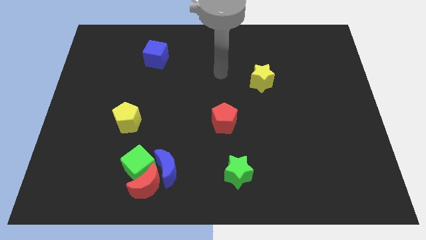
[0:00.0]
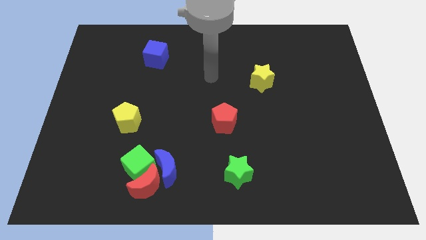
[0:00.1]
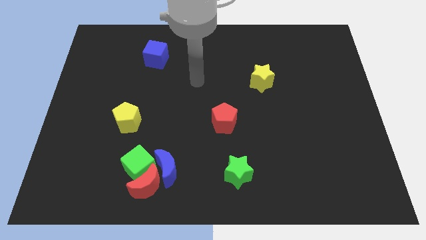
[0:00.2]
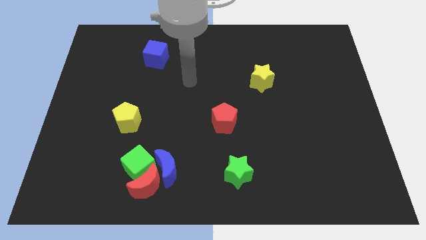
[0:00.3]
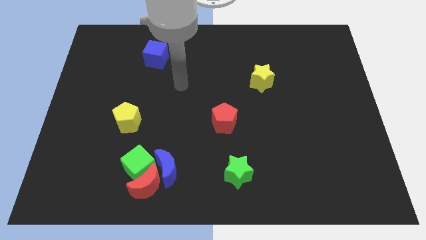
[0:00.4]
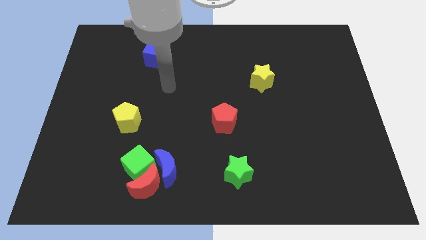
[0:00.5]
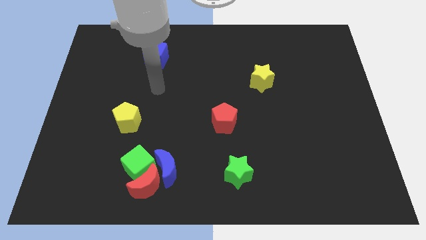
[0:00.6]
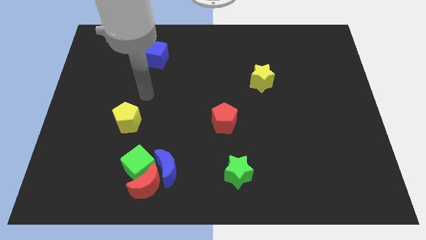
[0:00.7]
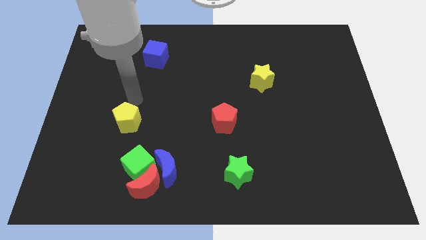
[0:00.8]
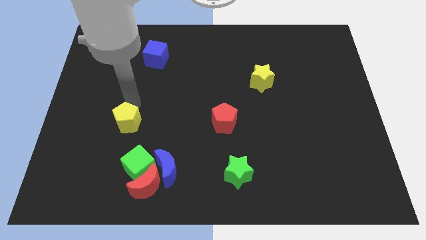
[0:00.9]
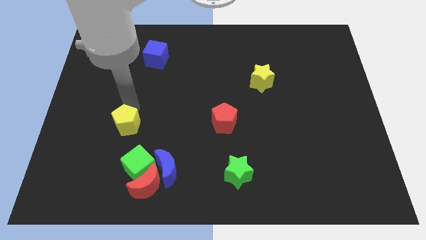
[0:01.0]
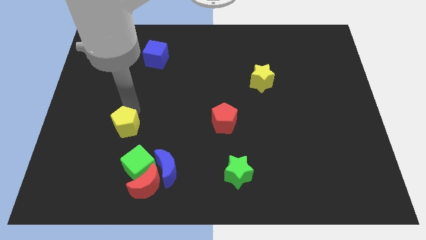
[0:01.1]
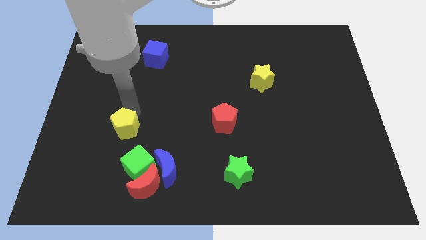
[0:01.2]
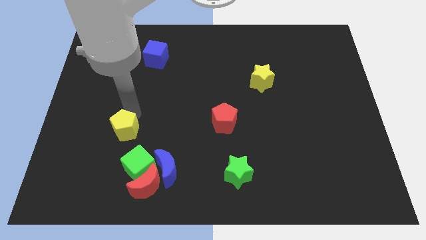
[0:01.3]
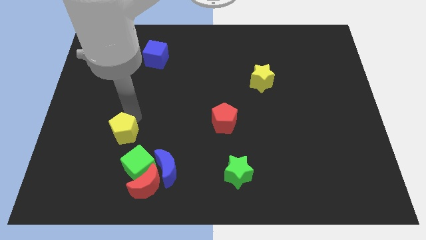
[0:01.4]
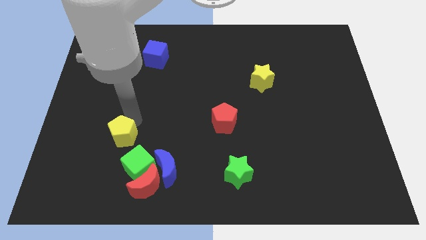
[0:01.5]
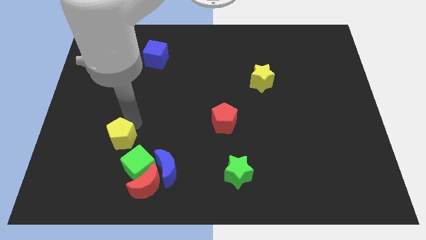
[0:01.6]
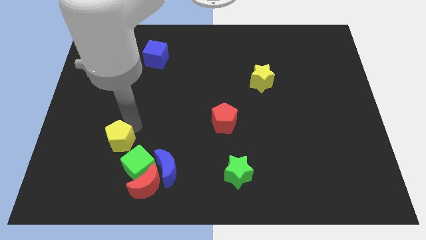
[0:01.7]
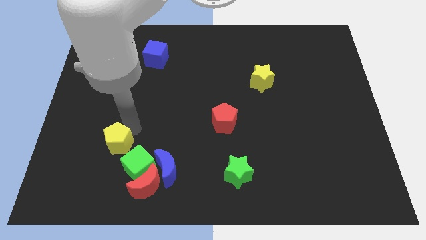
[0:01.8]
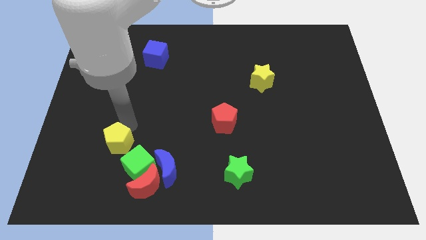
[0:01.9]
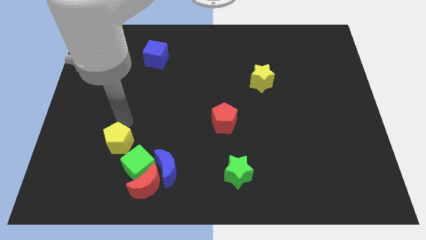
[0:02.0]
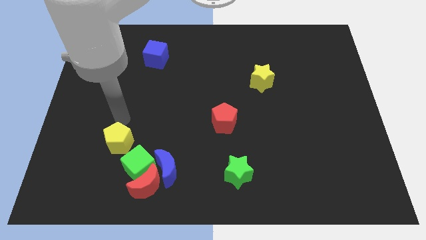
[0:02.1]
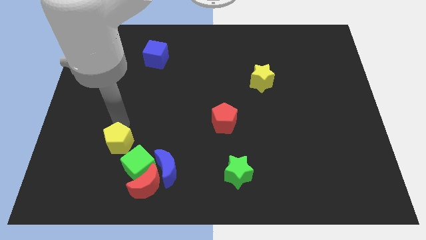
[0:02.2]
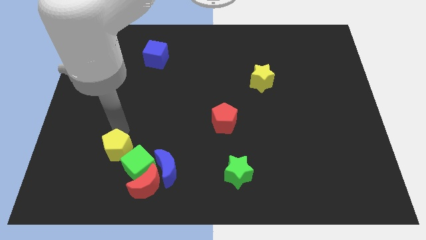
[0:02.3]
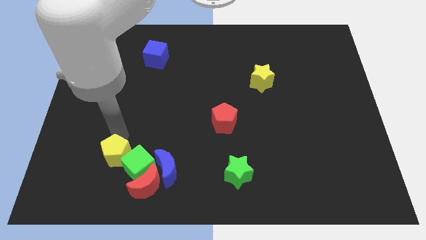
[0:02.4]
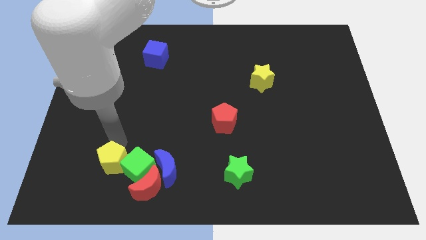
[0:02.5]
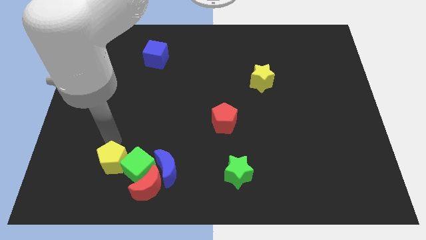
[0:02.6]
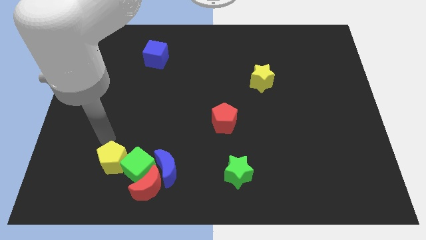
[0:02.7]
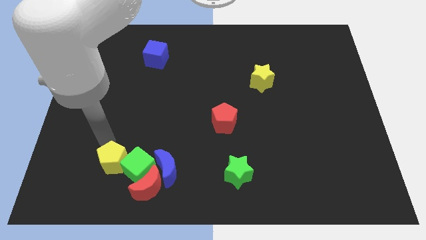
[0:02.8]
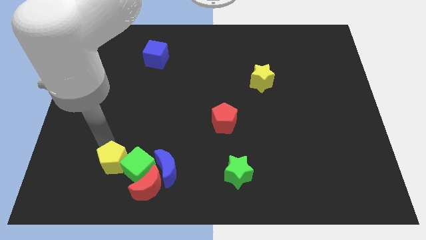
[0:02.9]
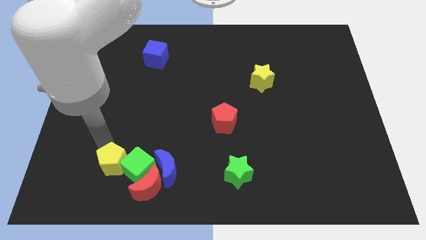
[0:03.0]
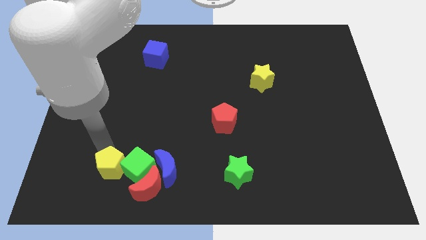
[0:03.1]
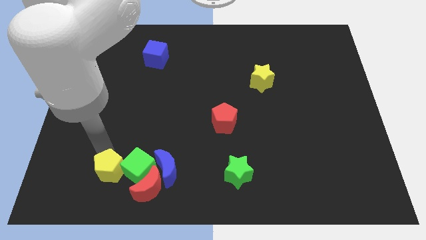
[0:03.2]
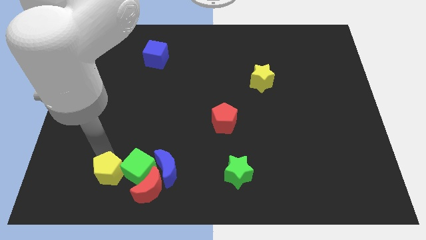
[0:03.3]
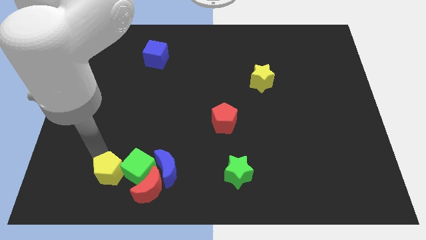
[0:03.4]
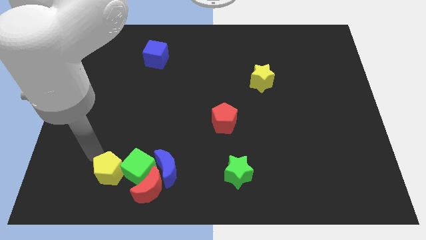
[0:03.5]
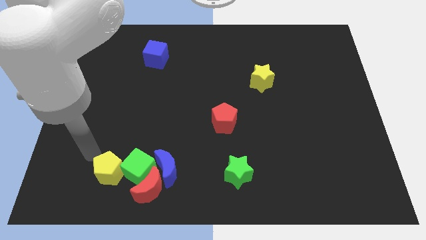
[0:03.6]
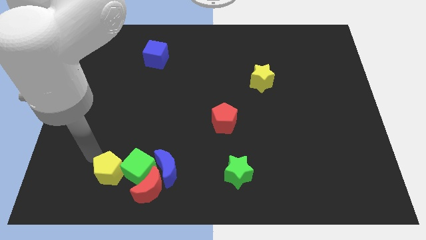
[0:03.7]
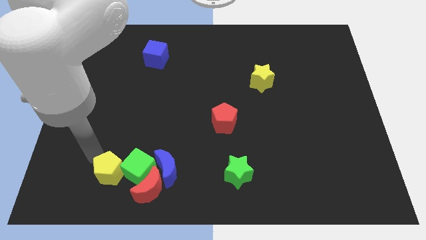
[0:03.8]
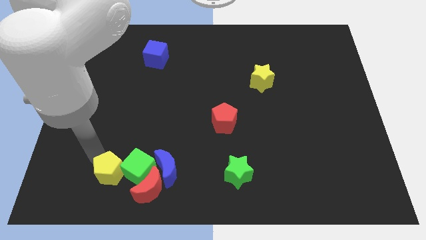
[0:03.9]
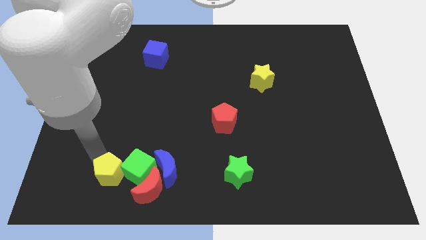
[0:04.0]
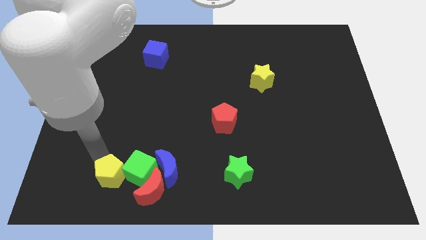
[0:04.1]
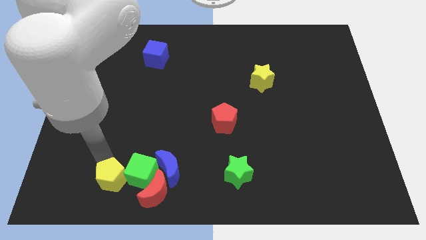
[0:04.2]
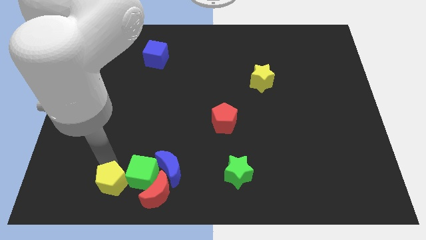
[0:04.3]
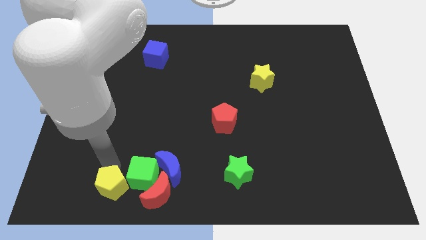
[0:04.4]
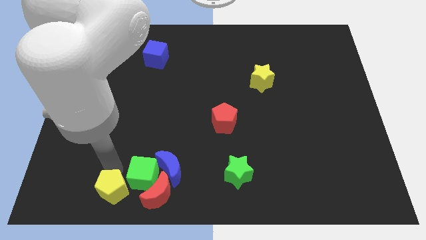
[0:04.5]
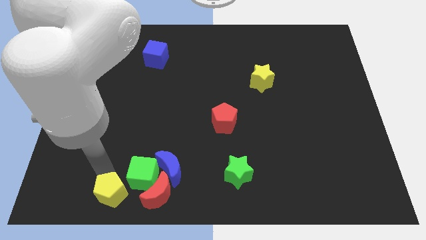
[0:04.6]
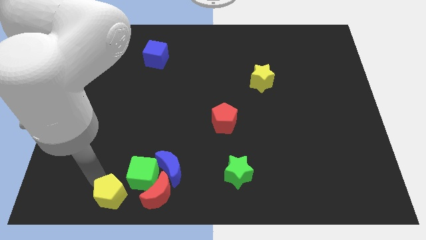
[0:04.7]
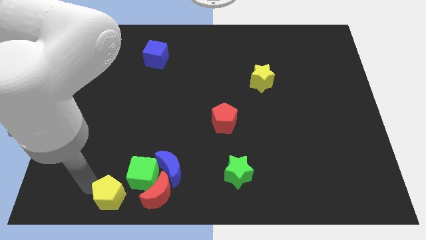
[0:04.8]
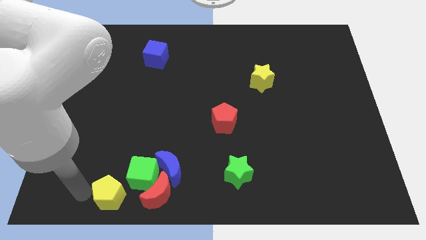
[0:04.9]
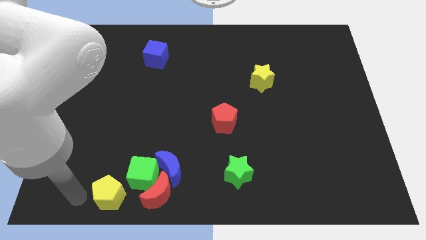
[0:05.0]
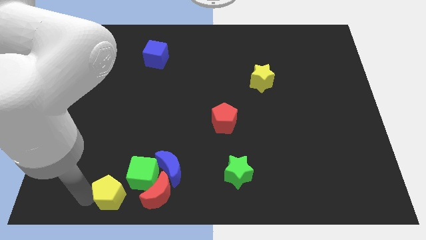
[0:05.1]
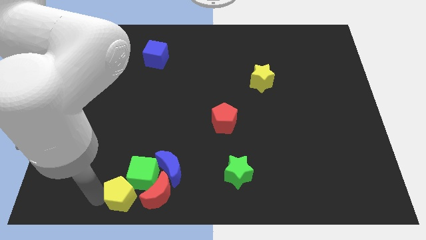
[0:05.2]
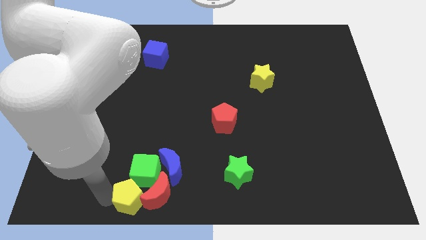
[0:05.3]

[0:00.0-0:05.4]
move the yellow pentagon close to the red moon

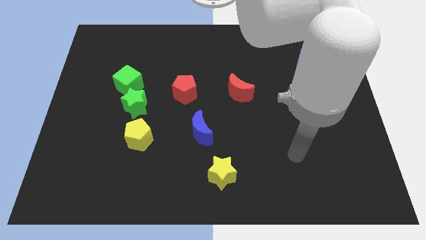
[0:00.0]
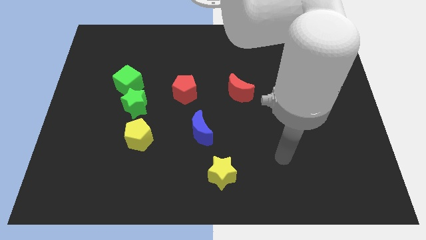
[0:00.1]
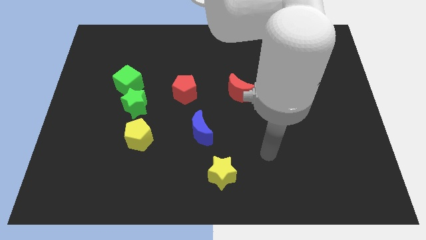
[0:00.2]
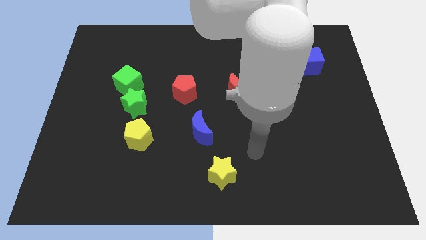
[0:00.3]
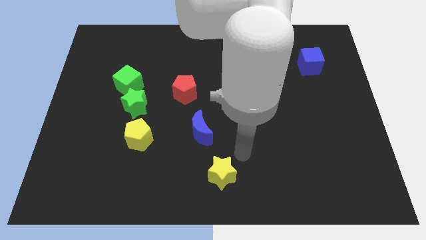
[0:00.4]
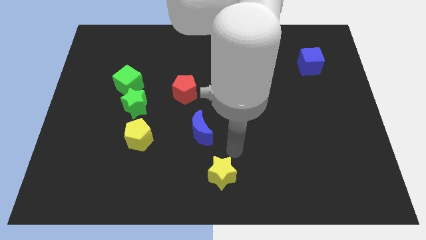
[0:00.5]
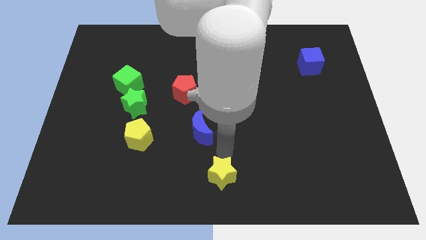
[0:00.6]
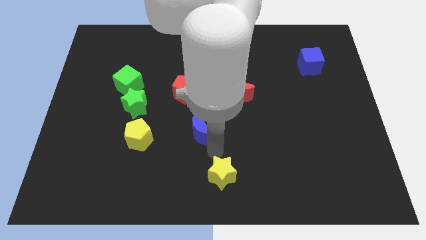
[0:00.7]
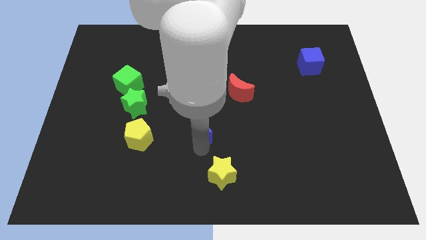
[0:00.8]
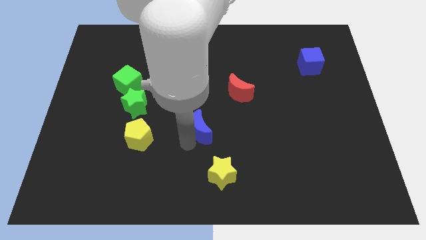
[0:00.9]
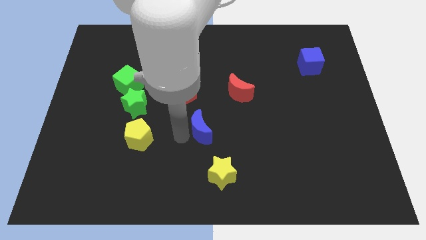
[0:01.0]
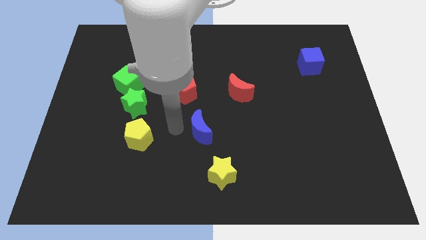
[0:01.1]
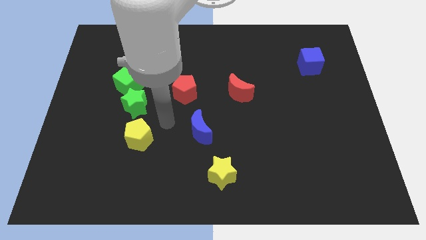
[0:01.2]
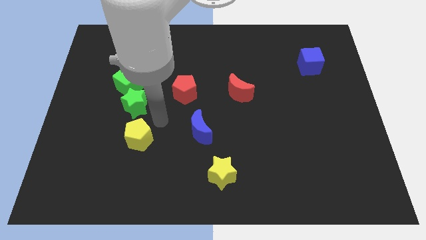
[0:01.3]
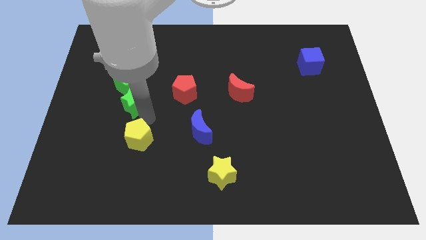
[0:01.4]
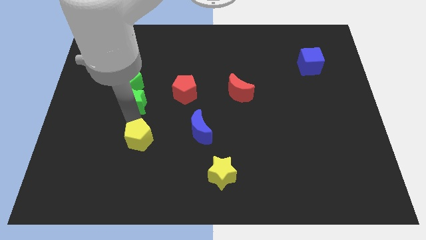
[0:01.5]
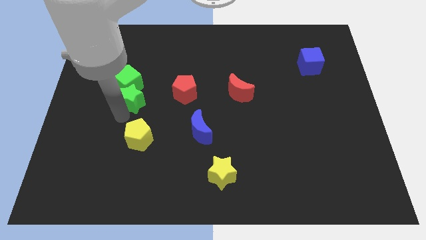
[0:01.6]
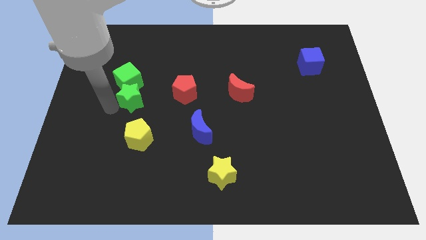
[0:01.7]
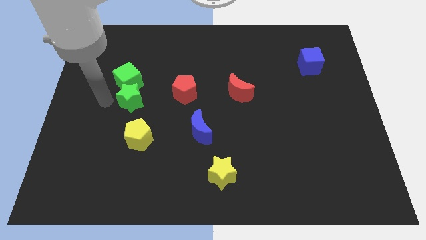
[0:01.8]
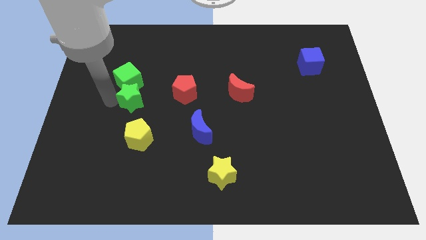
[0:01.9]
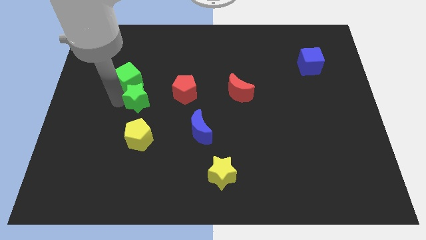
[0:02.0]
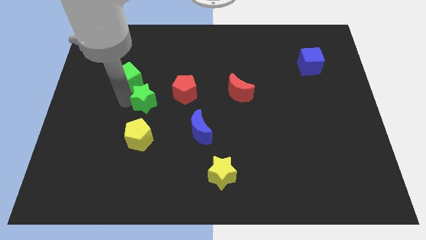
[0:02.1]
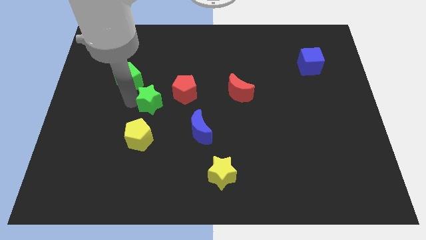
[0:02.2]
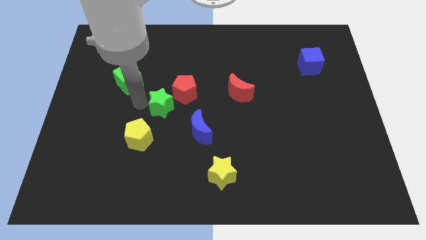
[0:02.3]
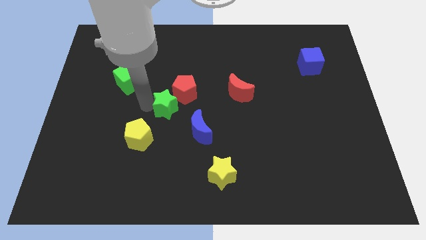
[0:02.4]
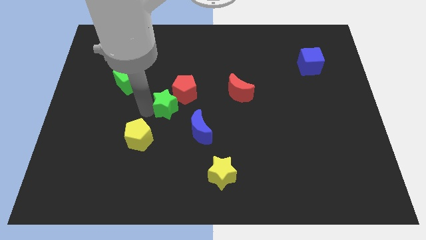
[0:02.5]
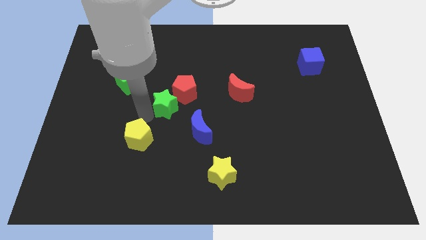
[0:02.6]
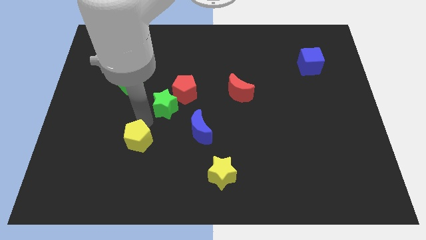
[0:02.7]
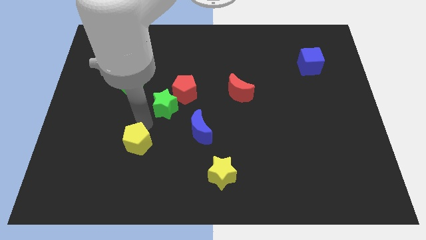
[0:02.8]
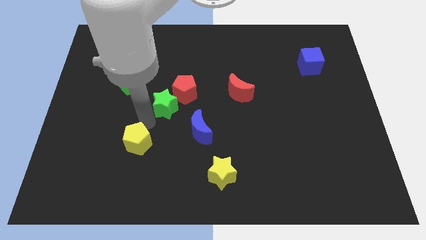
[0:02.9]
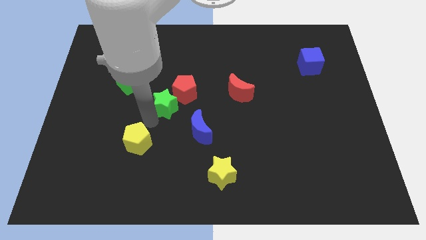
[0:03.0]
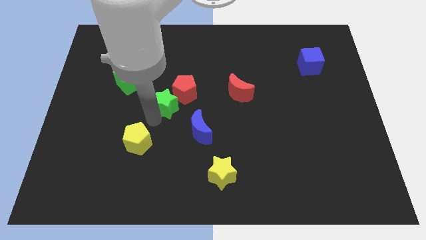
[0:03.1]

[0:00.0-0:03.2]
push the green star close to the red pentagon
